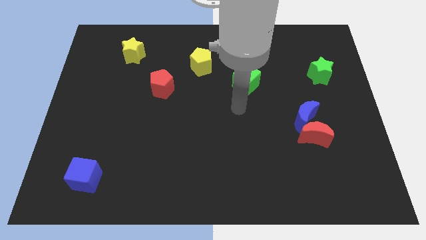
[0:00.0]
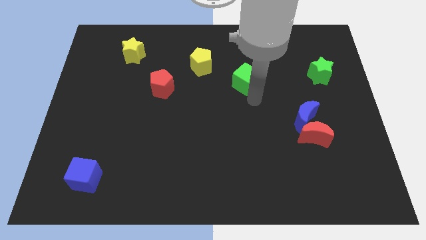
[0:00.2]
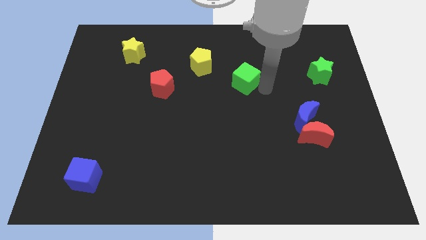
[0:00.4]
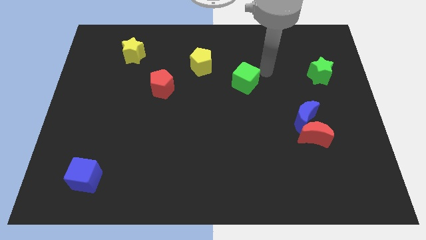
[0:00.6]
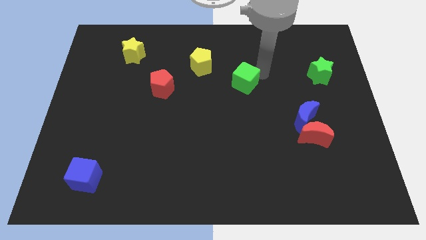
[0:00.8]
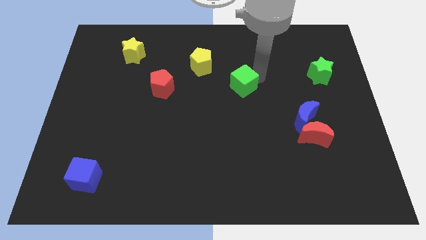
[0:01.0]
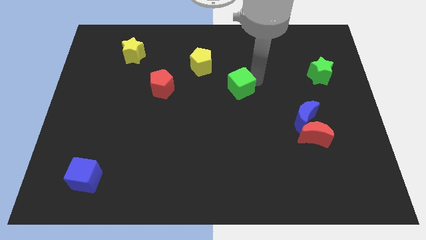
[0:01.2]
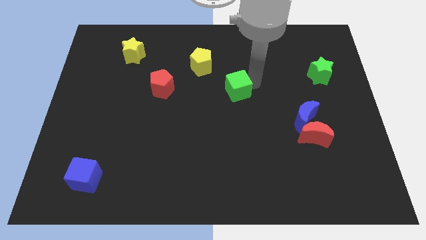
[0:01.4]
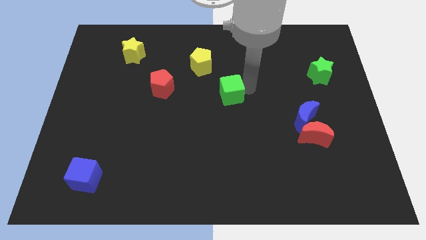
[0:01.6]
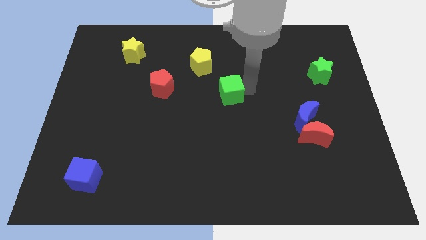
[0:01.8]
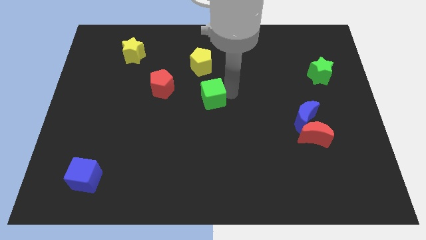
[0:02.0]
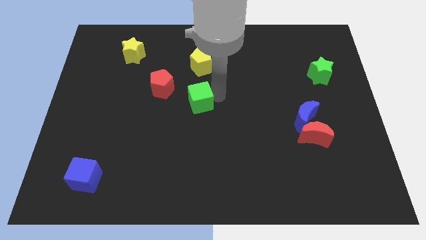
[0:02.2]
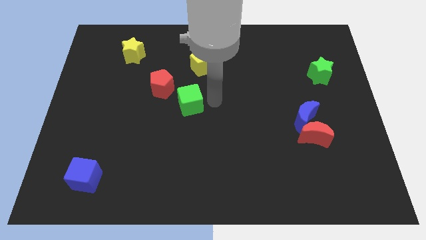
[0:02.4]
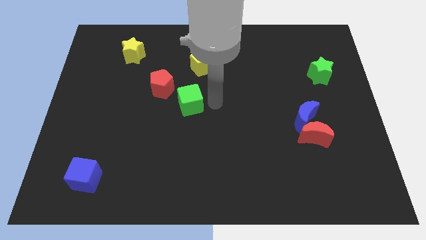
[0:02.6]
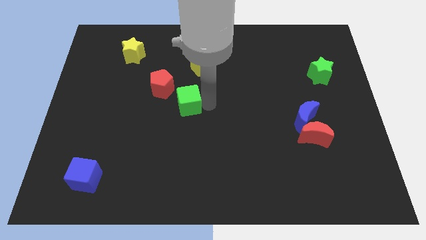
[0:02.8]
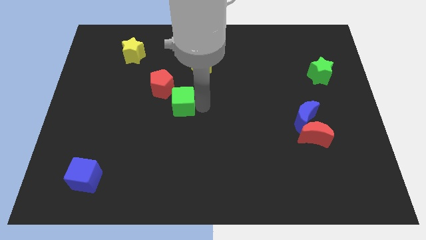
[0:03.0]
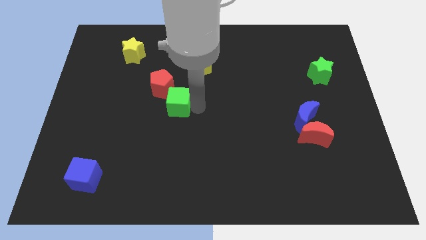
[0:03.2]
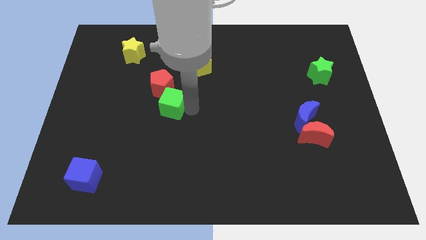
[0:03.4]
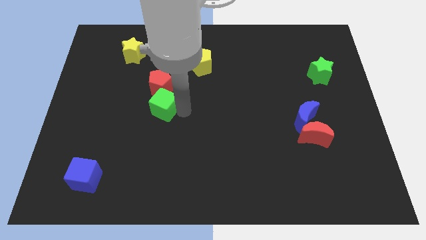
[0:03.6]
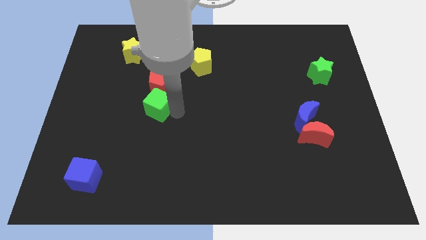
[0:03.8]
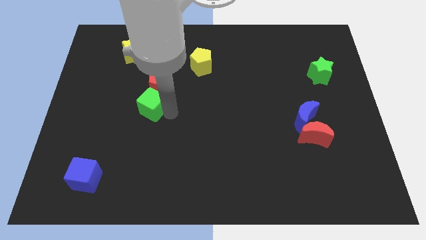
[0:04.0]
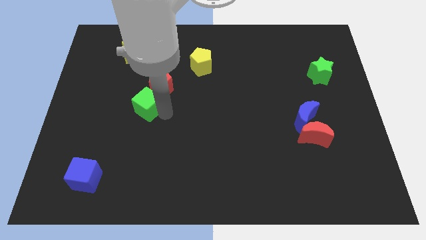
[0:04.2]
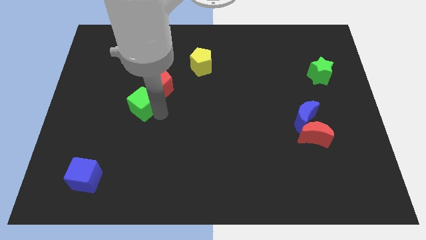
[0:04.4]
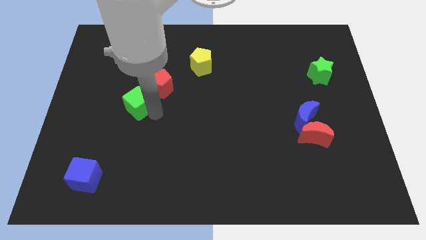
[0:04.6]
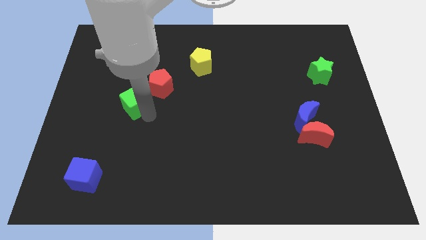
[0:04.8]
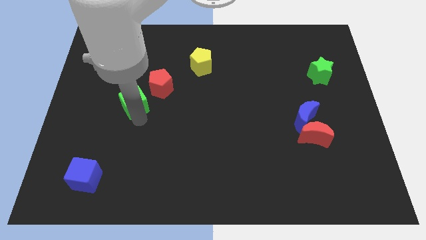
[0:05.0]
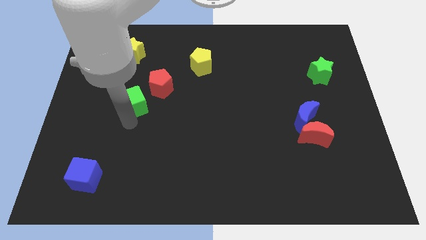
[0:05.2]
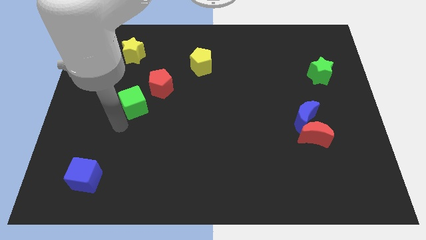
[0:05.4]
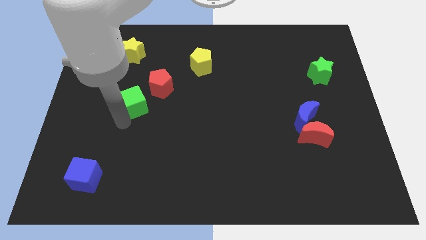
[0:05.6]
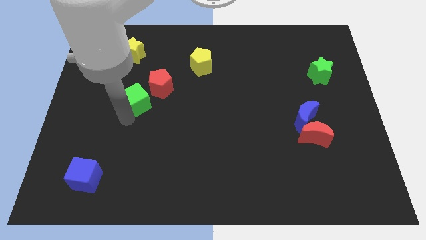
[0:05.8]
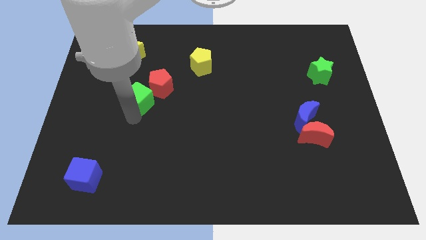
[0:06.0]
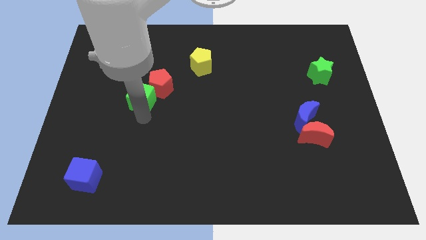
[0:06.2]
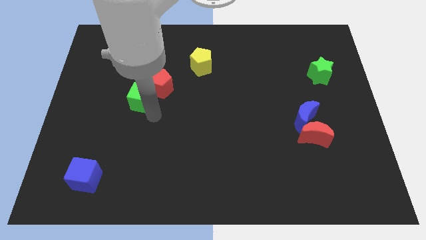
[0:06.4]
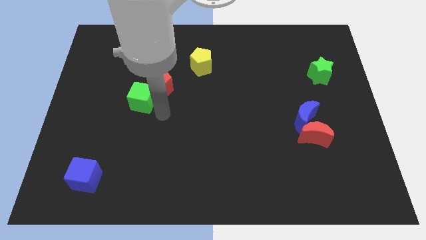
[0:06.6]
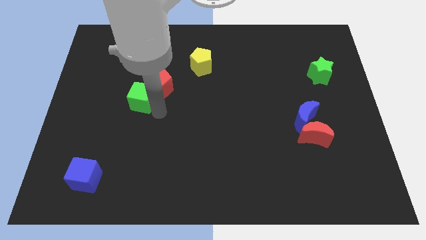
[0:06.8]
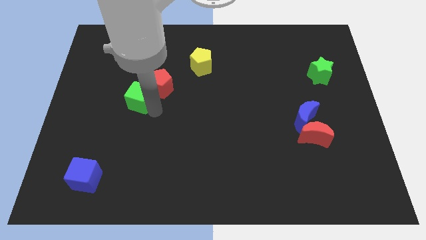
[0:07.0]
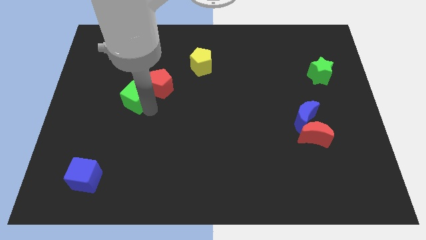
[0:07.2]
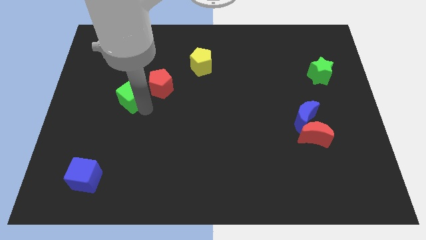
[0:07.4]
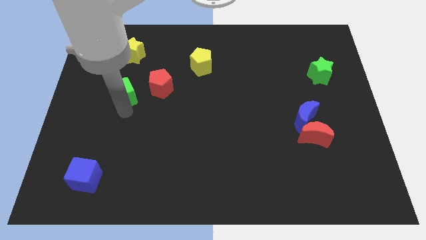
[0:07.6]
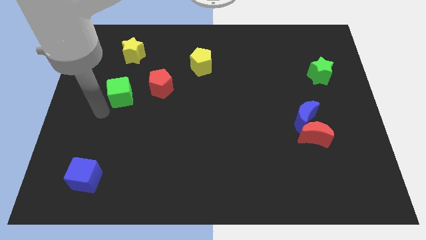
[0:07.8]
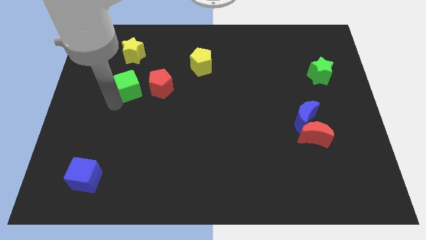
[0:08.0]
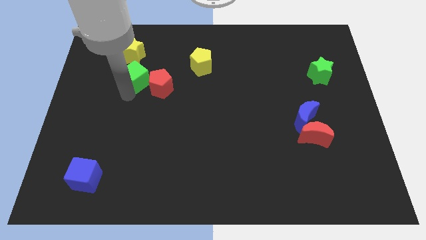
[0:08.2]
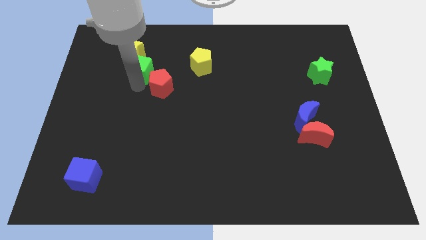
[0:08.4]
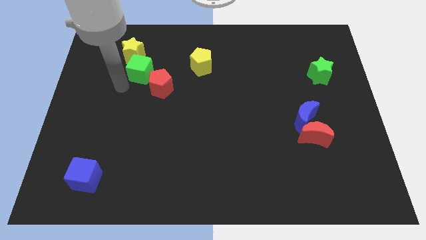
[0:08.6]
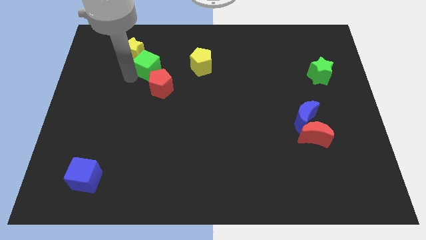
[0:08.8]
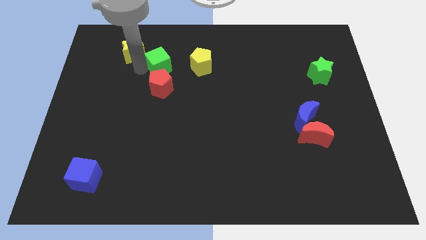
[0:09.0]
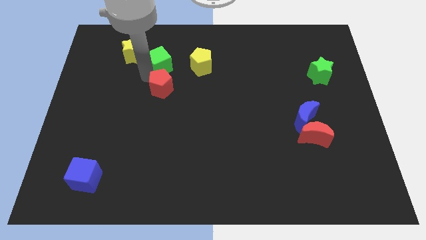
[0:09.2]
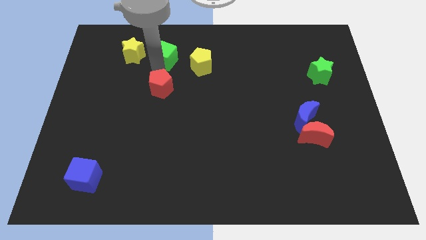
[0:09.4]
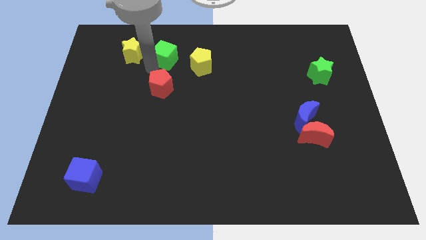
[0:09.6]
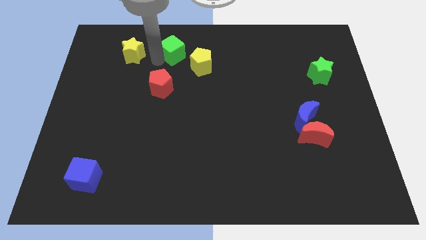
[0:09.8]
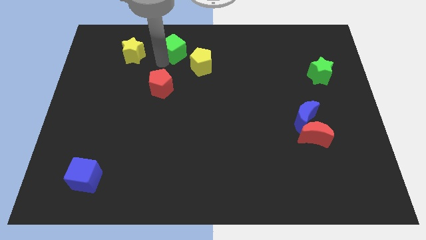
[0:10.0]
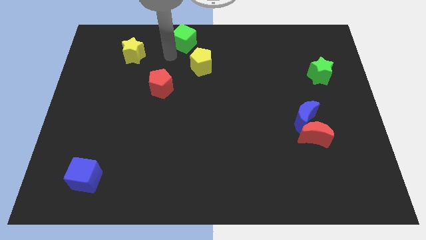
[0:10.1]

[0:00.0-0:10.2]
put the green cube to the top side

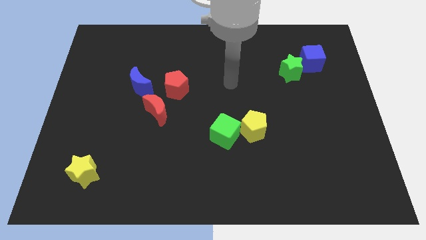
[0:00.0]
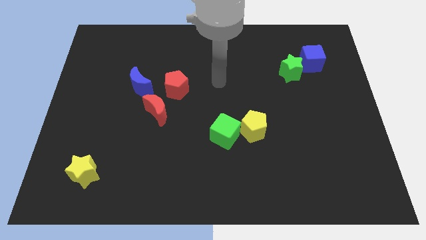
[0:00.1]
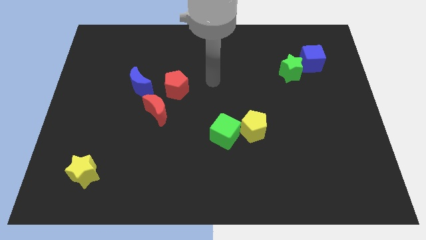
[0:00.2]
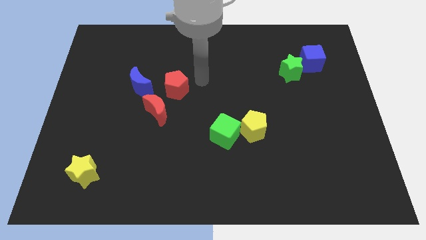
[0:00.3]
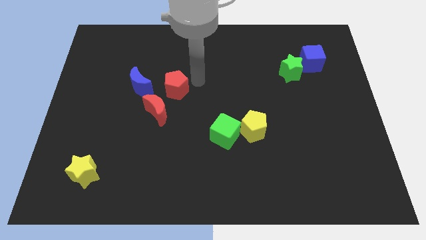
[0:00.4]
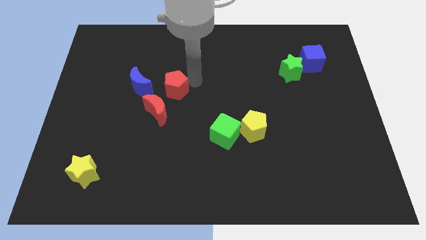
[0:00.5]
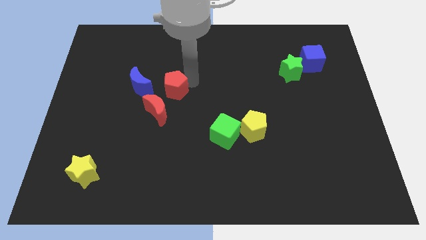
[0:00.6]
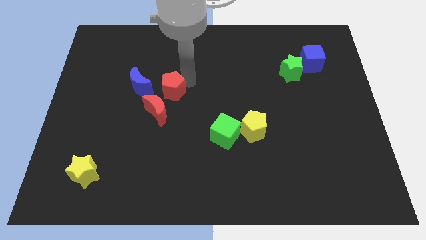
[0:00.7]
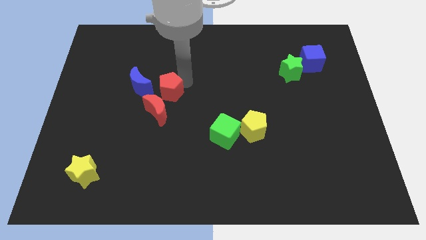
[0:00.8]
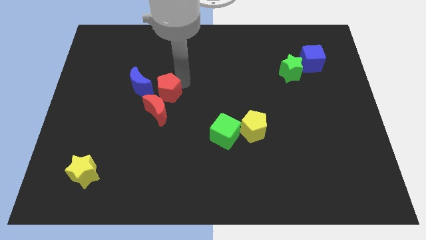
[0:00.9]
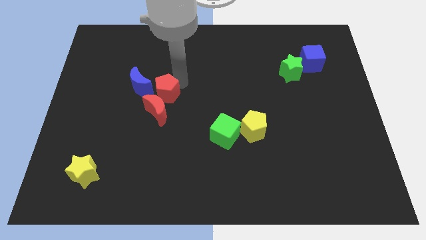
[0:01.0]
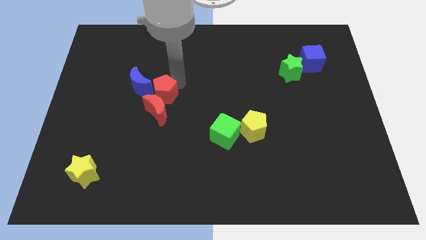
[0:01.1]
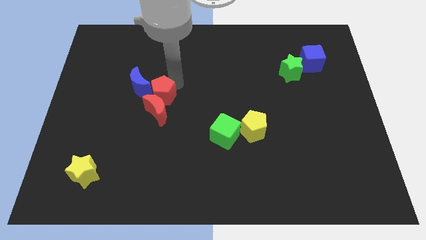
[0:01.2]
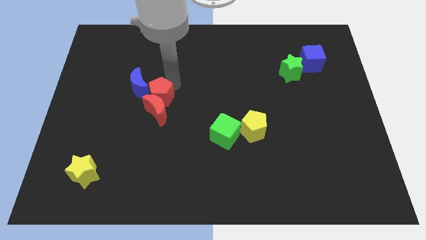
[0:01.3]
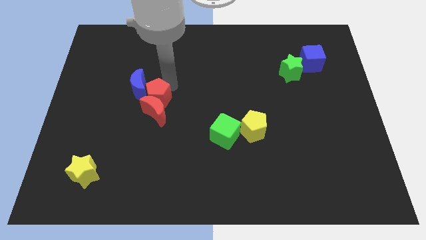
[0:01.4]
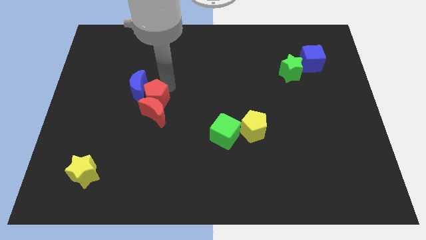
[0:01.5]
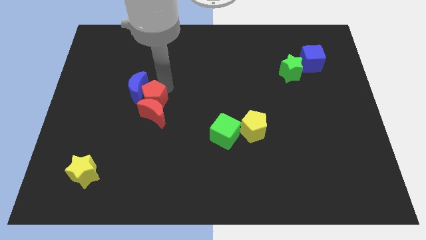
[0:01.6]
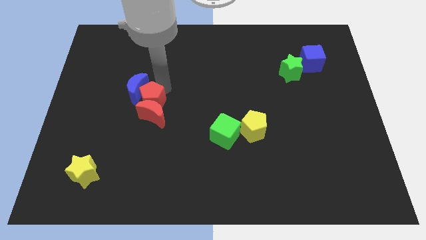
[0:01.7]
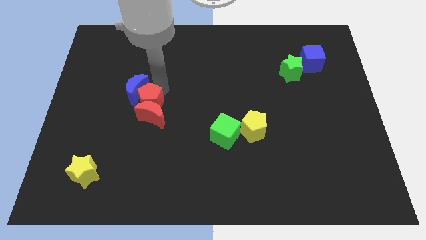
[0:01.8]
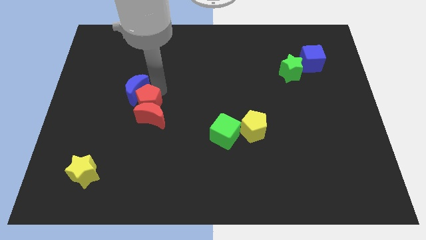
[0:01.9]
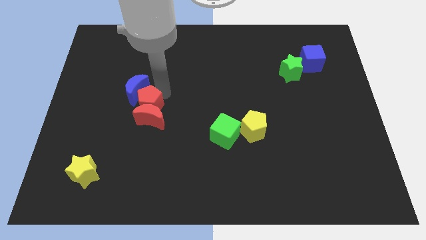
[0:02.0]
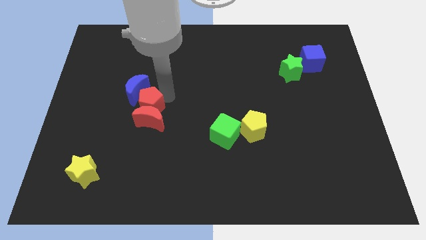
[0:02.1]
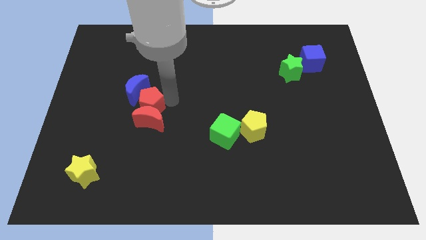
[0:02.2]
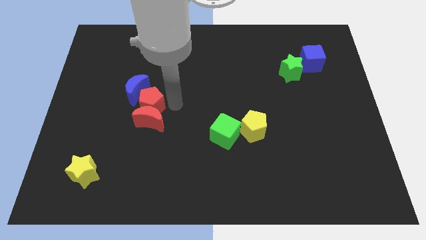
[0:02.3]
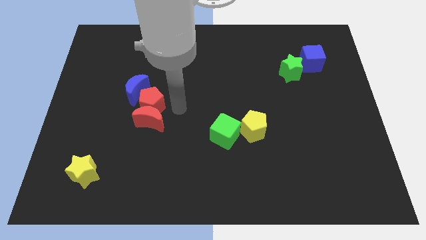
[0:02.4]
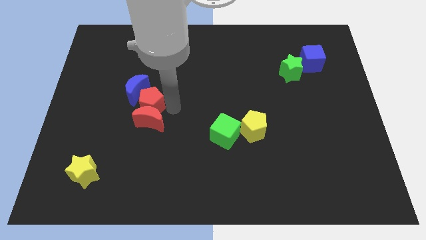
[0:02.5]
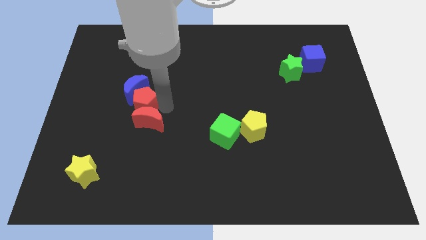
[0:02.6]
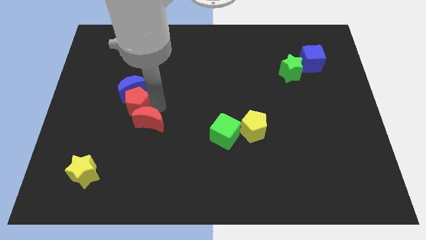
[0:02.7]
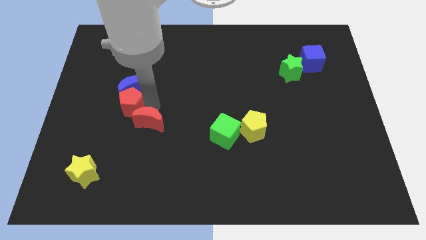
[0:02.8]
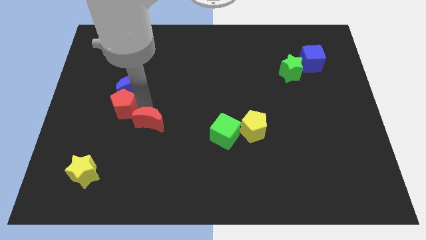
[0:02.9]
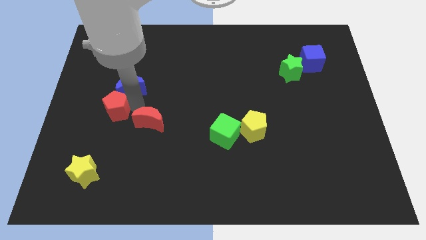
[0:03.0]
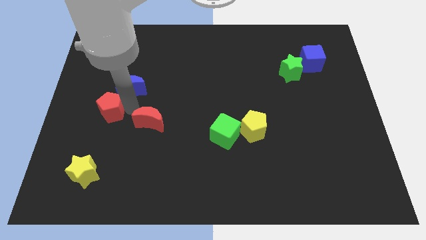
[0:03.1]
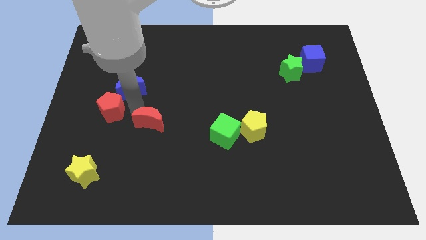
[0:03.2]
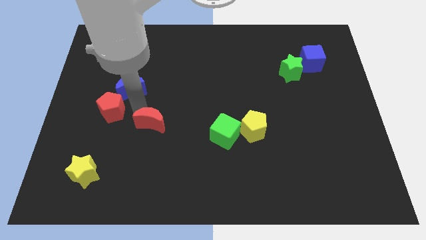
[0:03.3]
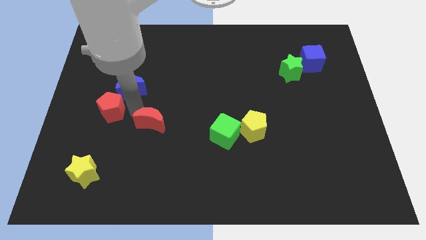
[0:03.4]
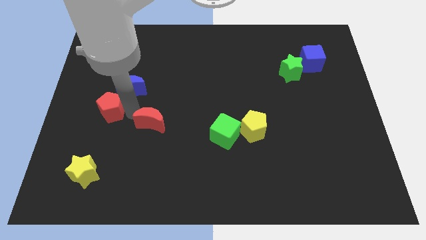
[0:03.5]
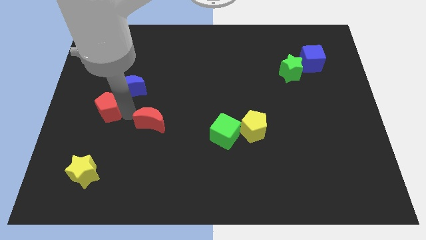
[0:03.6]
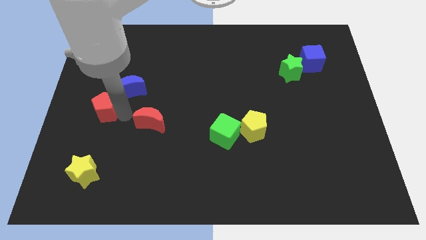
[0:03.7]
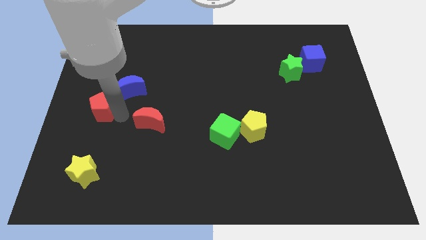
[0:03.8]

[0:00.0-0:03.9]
push the red pentagon to the left side of the board
